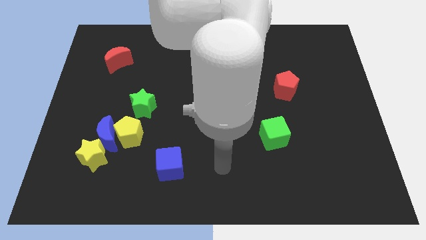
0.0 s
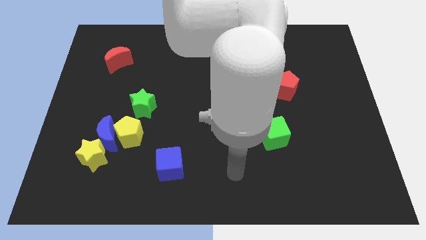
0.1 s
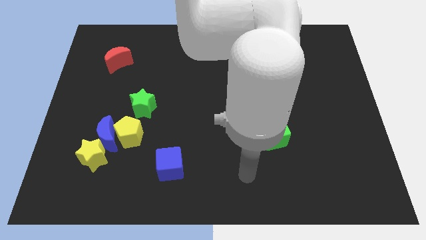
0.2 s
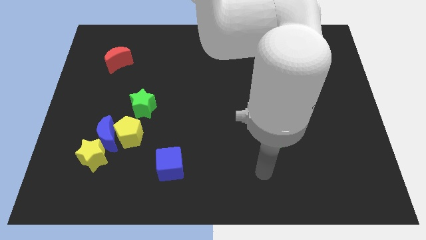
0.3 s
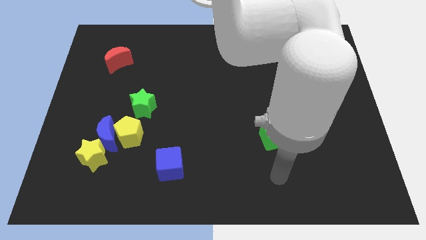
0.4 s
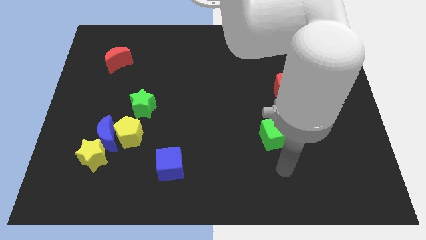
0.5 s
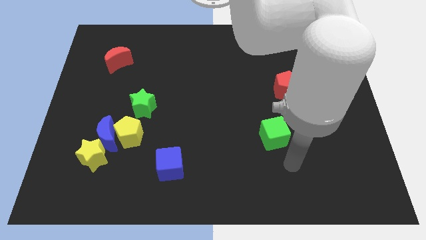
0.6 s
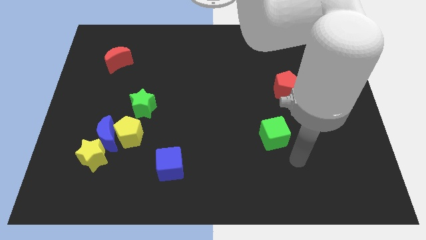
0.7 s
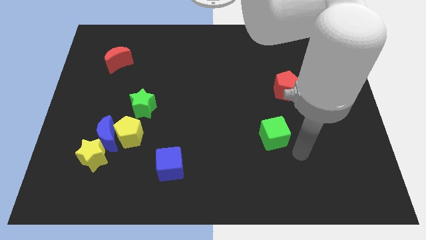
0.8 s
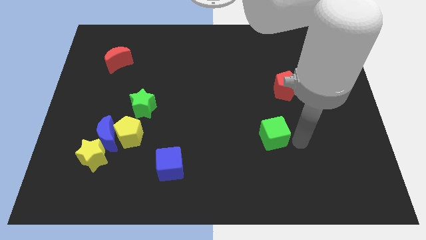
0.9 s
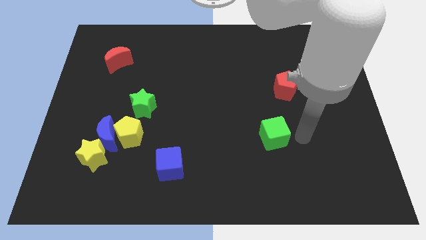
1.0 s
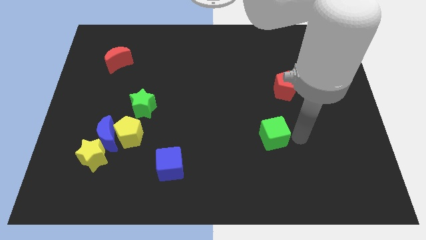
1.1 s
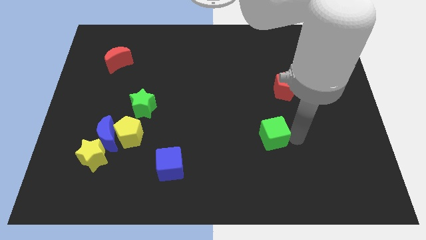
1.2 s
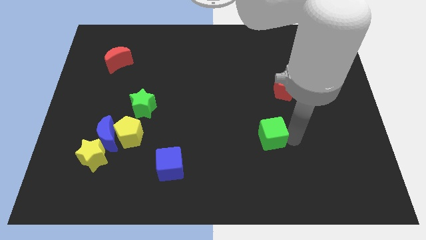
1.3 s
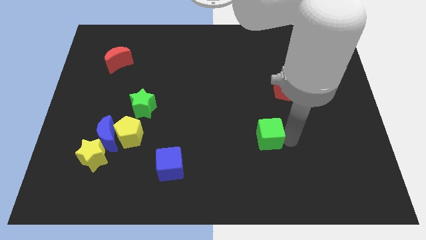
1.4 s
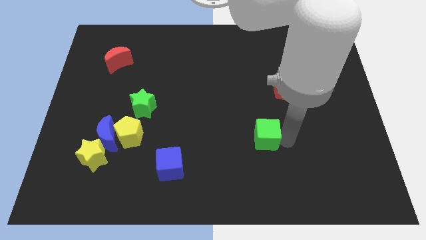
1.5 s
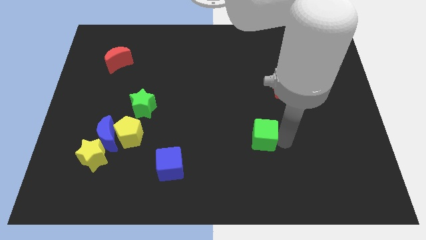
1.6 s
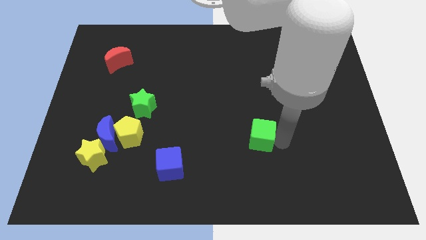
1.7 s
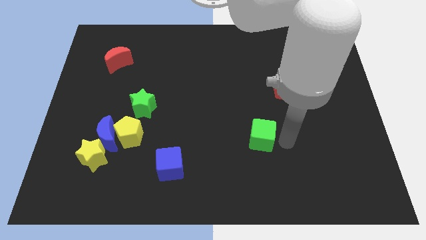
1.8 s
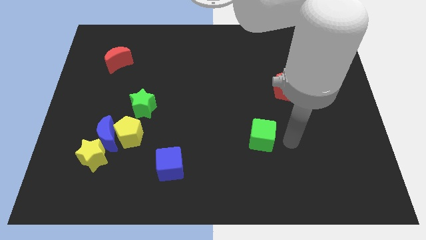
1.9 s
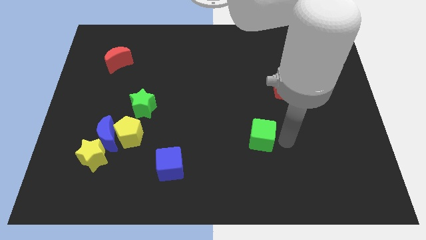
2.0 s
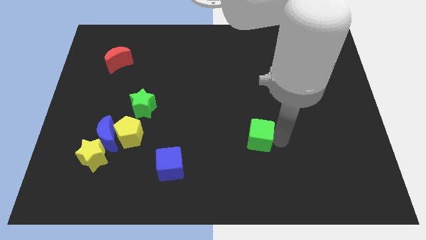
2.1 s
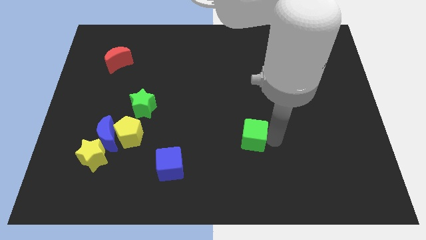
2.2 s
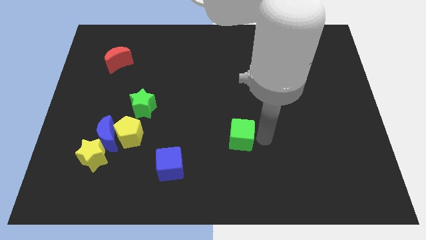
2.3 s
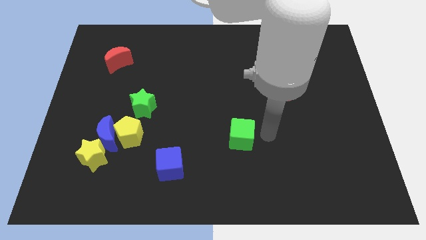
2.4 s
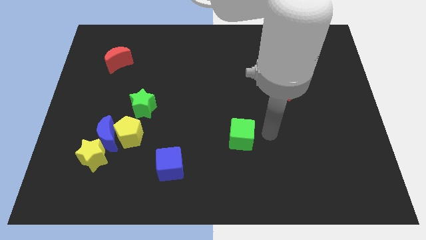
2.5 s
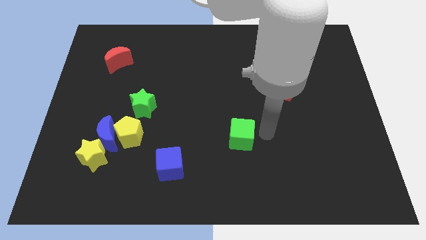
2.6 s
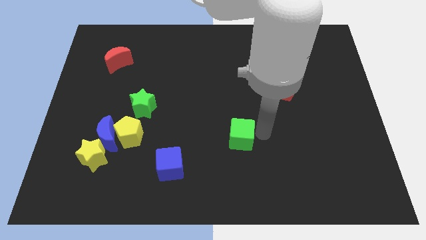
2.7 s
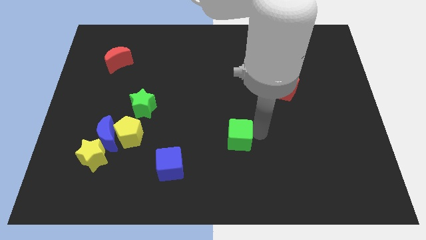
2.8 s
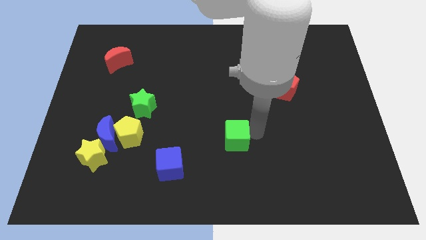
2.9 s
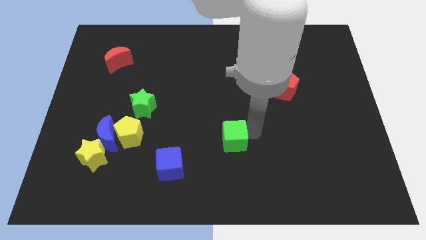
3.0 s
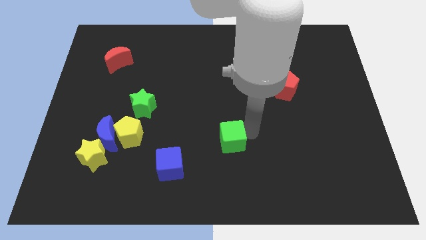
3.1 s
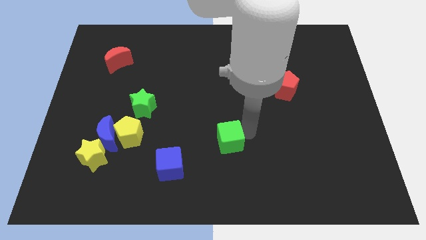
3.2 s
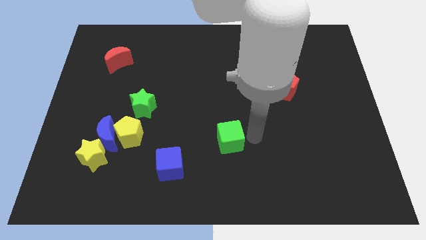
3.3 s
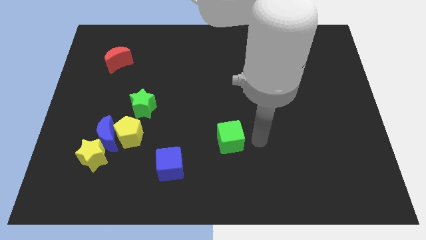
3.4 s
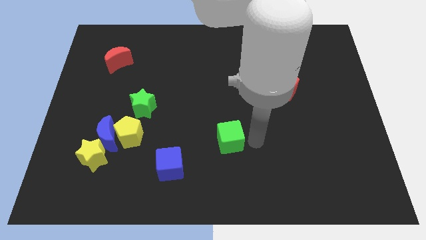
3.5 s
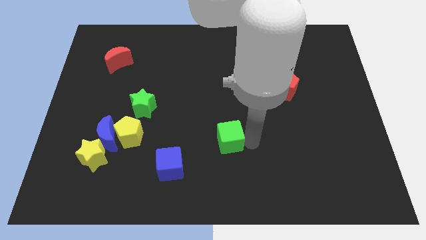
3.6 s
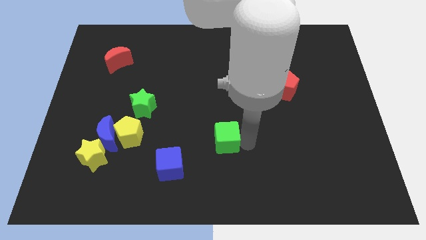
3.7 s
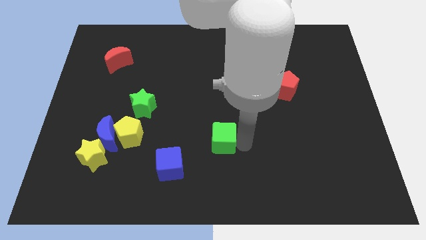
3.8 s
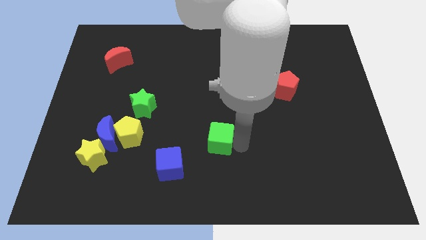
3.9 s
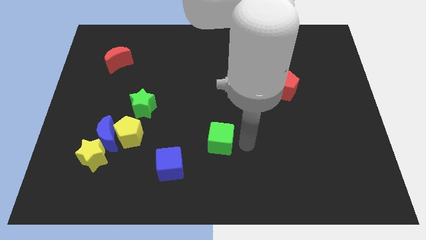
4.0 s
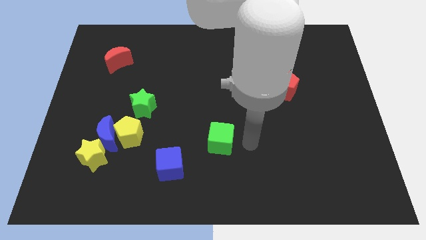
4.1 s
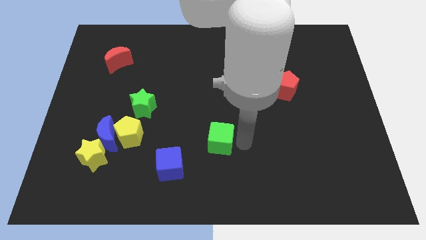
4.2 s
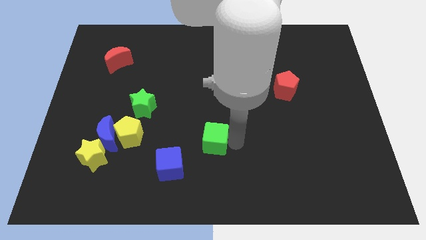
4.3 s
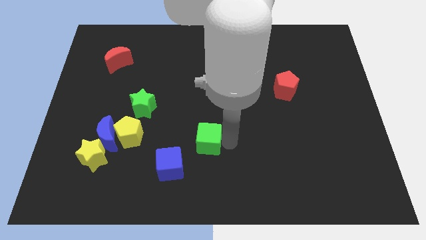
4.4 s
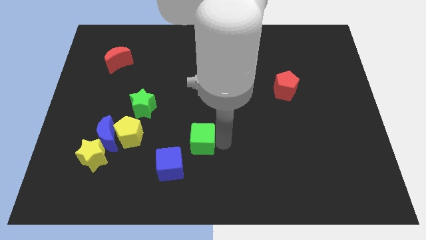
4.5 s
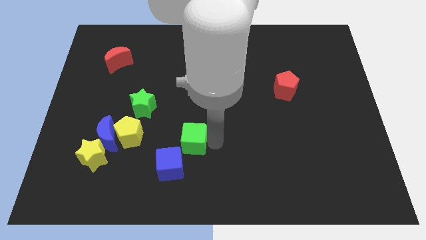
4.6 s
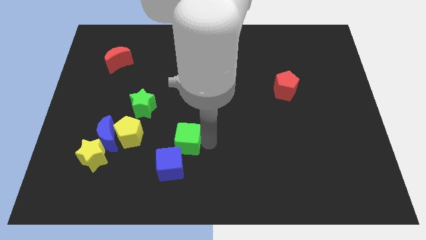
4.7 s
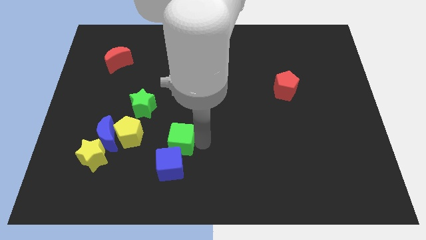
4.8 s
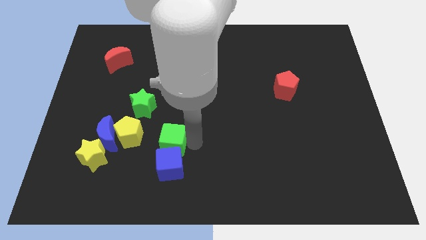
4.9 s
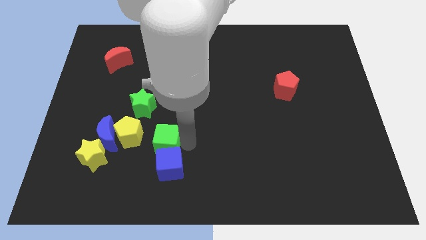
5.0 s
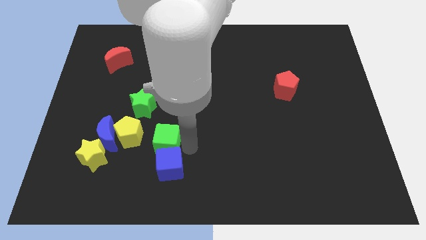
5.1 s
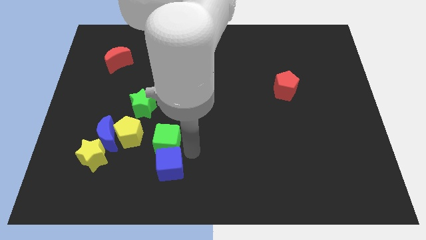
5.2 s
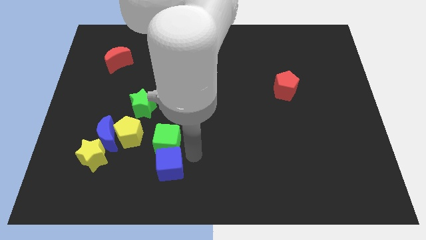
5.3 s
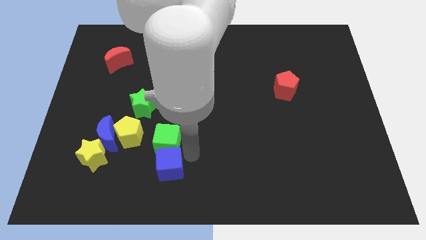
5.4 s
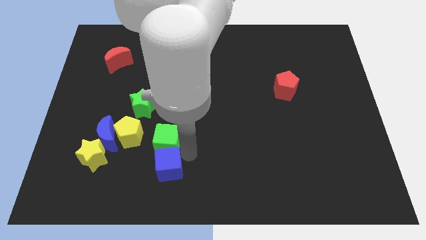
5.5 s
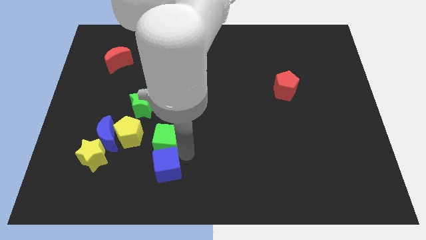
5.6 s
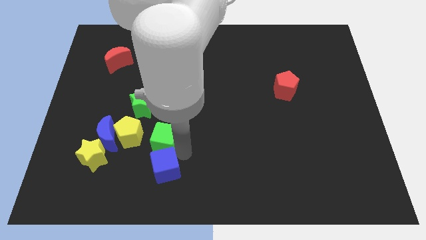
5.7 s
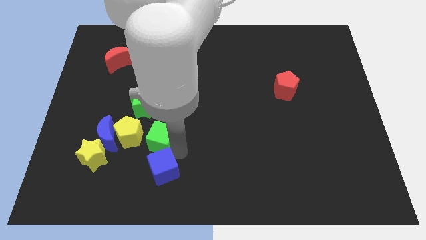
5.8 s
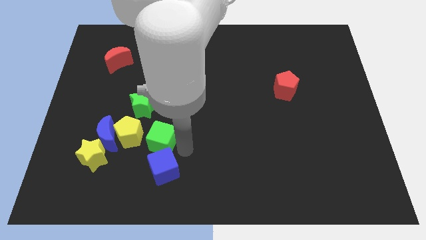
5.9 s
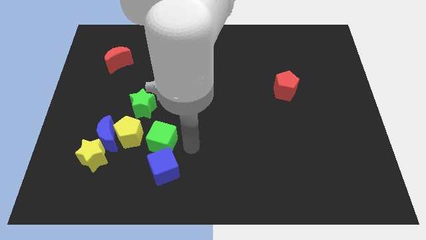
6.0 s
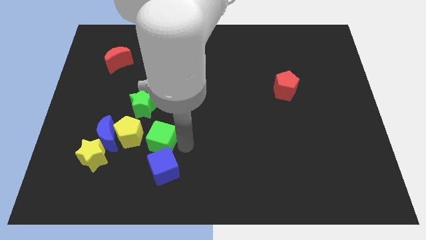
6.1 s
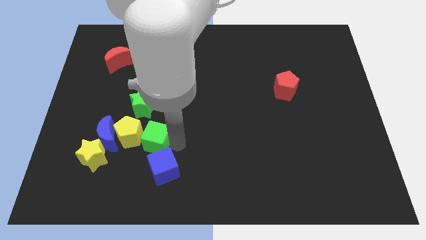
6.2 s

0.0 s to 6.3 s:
move the green cube to the yellow pentagon

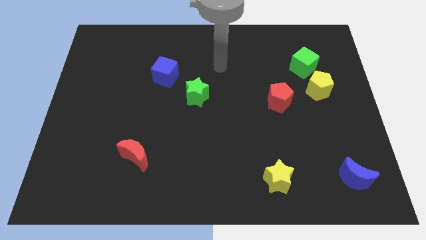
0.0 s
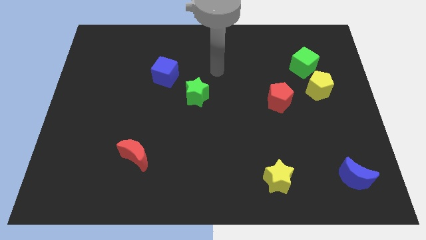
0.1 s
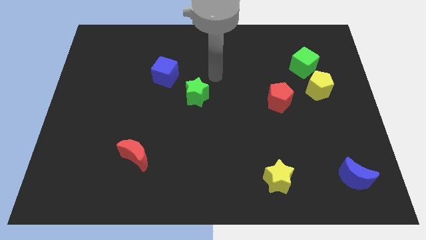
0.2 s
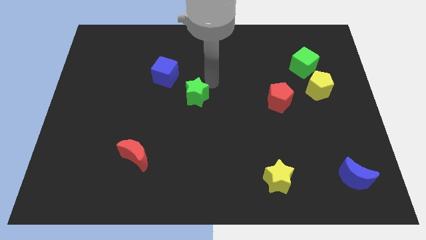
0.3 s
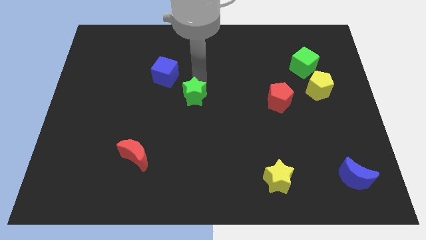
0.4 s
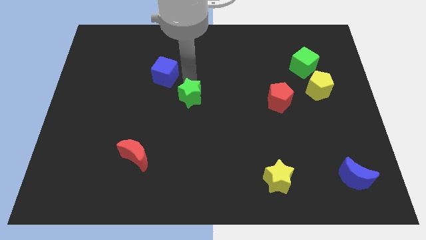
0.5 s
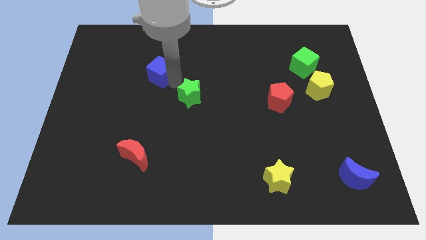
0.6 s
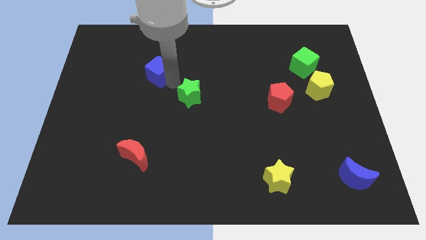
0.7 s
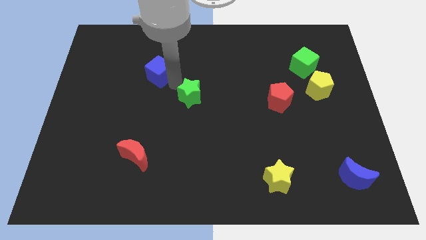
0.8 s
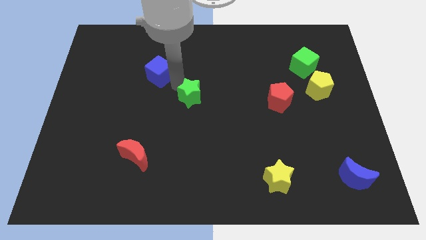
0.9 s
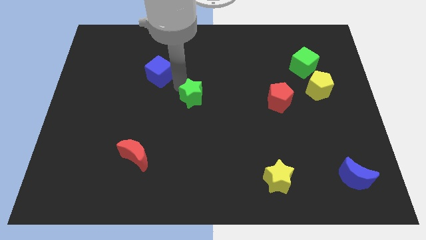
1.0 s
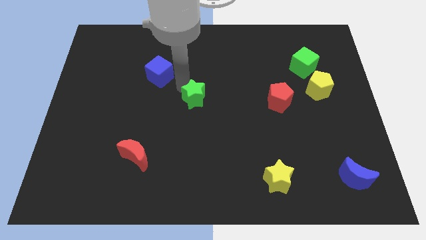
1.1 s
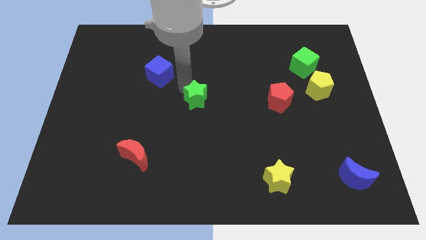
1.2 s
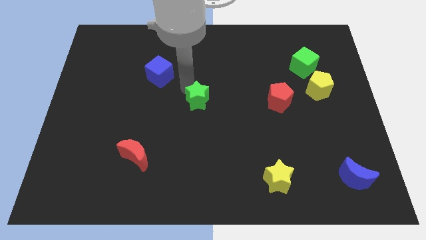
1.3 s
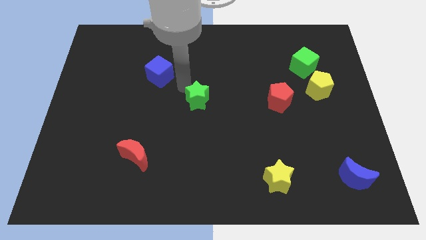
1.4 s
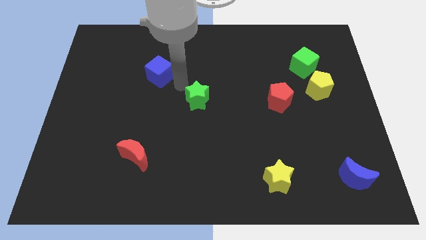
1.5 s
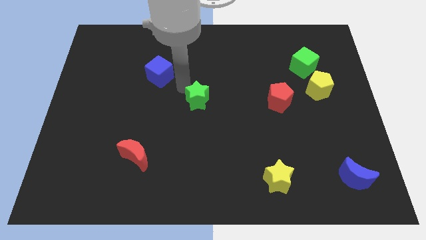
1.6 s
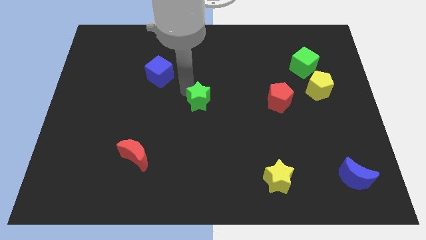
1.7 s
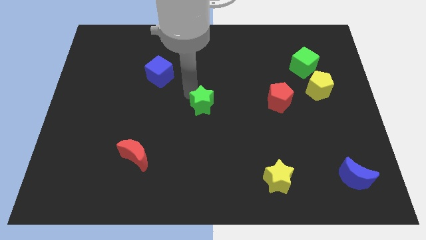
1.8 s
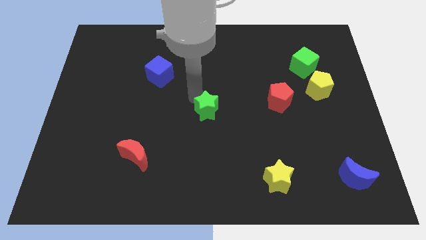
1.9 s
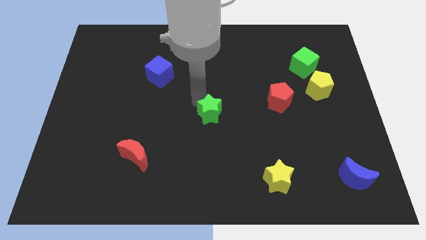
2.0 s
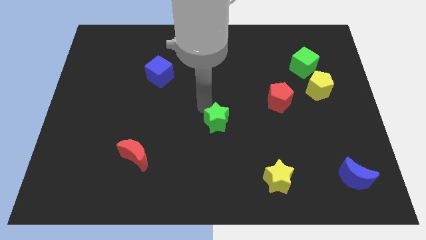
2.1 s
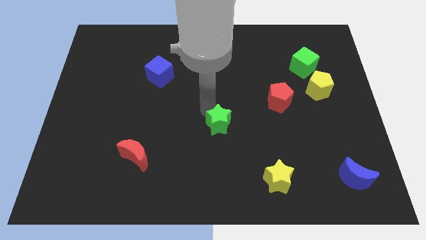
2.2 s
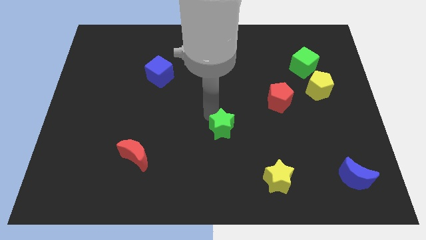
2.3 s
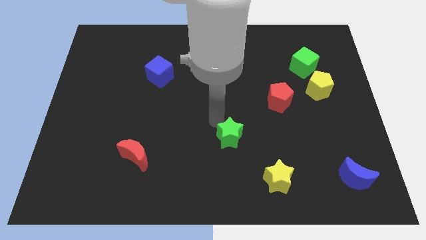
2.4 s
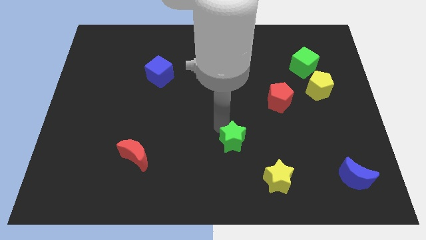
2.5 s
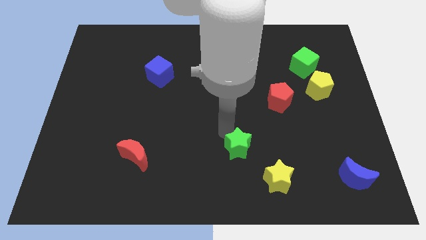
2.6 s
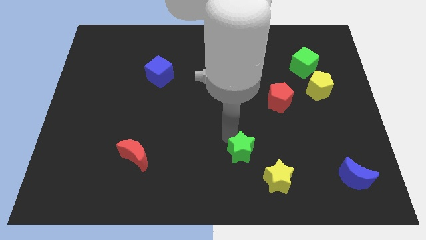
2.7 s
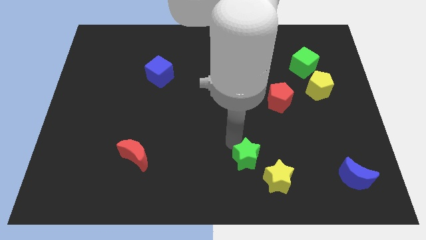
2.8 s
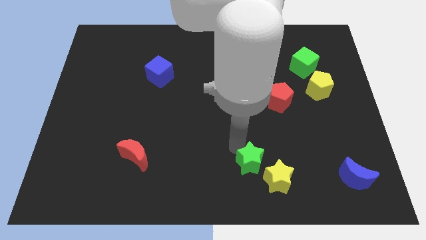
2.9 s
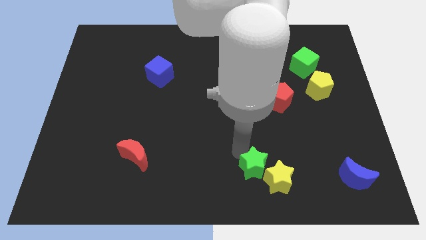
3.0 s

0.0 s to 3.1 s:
push the green star next to the yellow star
